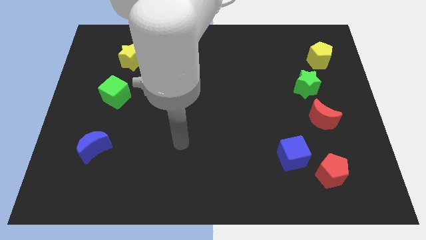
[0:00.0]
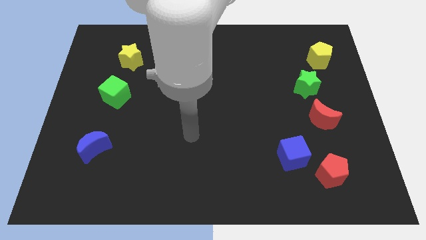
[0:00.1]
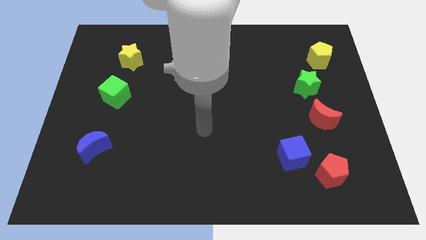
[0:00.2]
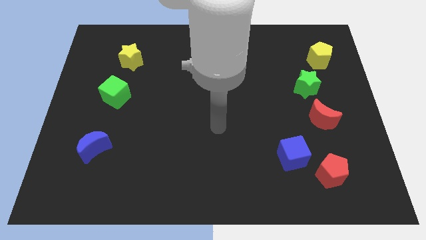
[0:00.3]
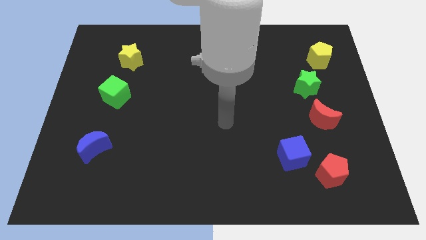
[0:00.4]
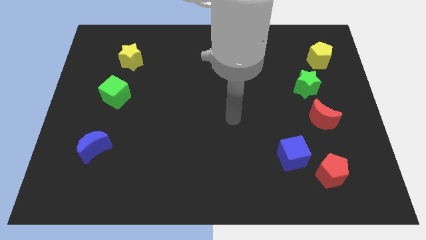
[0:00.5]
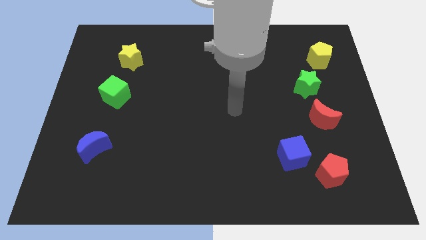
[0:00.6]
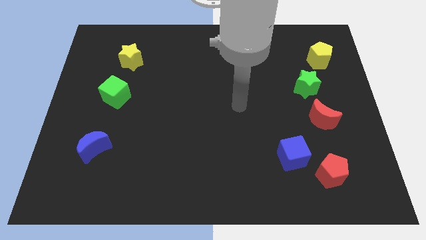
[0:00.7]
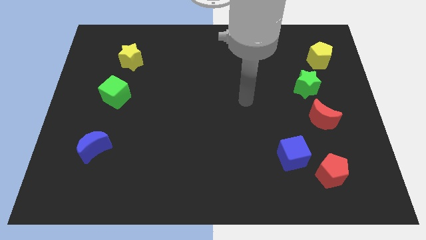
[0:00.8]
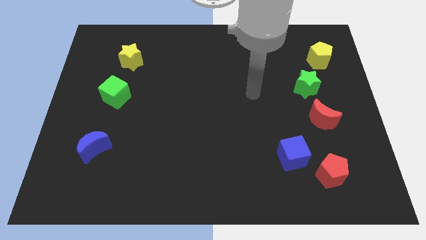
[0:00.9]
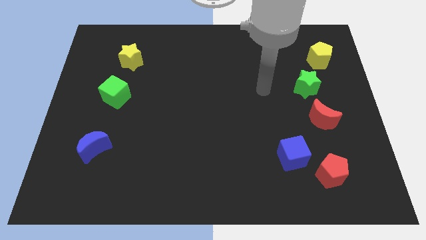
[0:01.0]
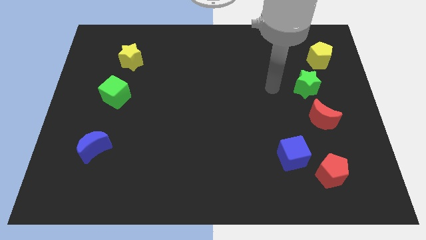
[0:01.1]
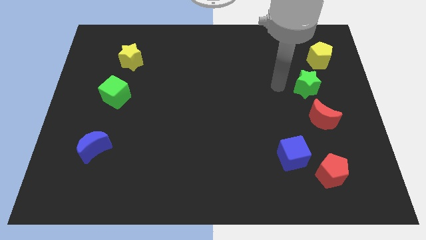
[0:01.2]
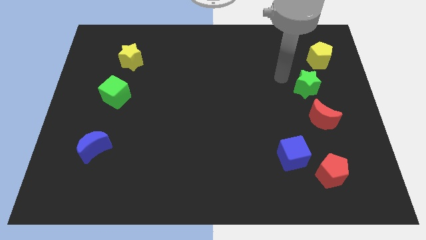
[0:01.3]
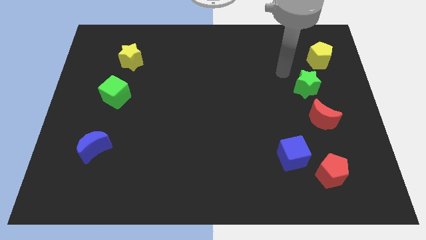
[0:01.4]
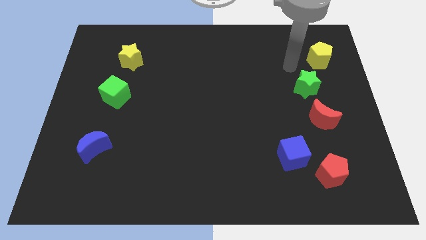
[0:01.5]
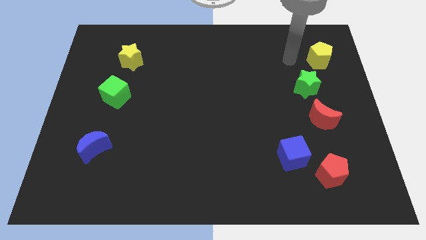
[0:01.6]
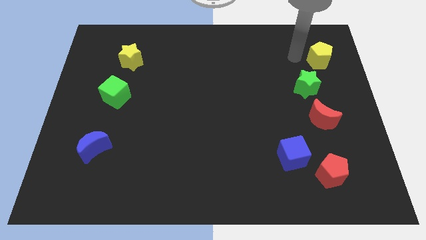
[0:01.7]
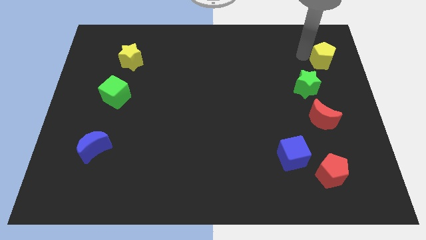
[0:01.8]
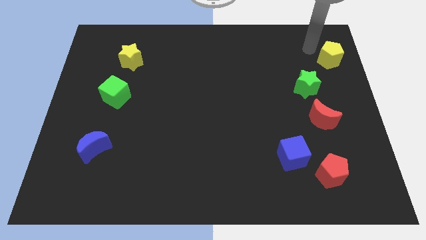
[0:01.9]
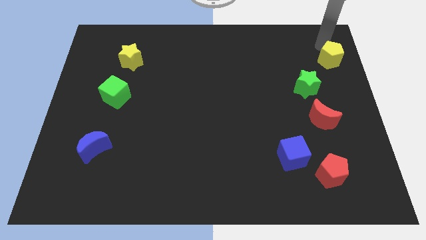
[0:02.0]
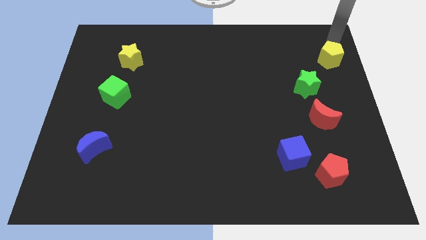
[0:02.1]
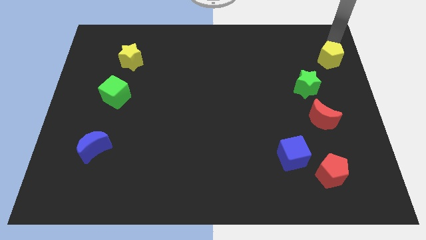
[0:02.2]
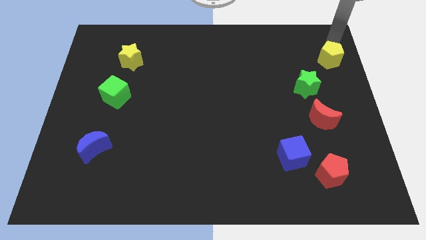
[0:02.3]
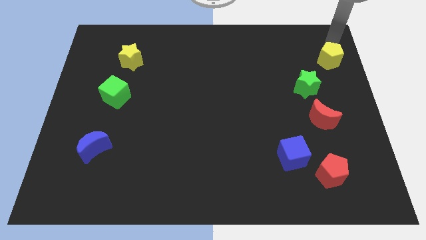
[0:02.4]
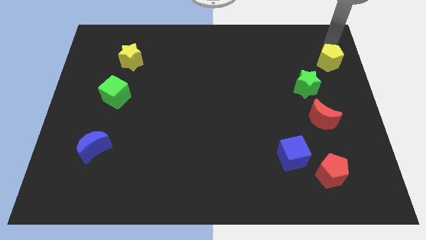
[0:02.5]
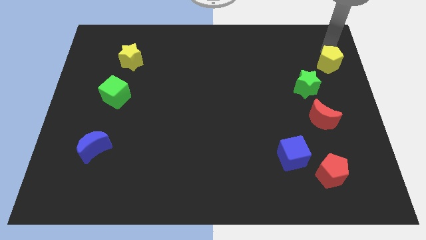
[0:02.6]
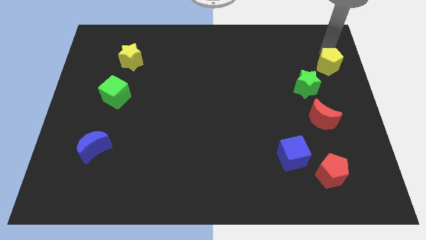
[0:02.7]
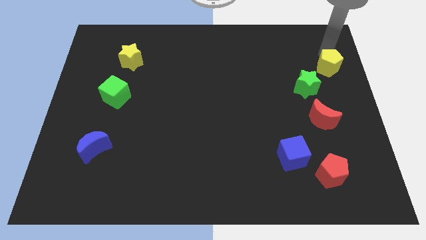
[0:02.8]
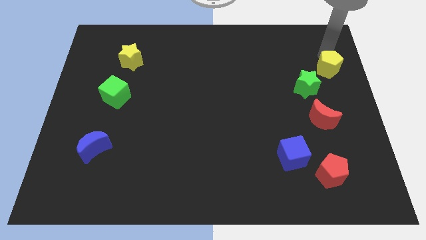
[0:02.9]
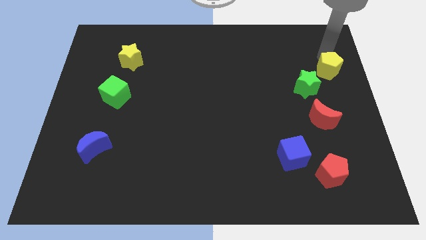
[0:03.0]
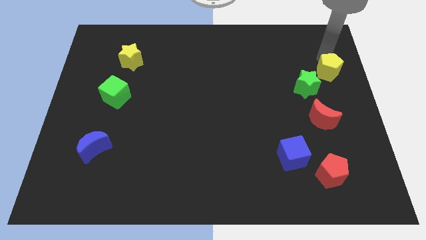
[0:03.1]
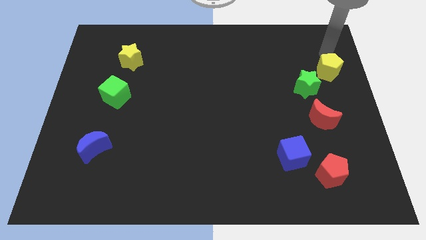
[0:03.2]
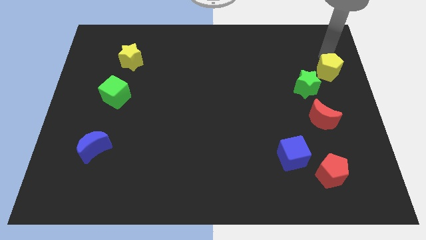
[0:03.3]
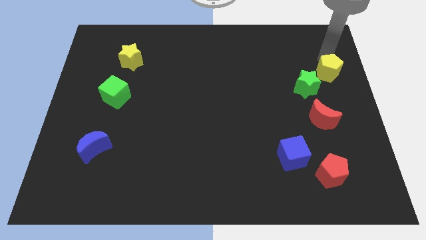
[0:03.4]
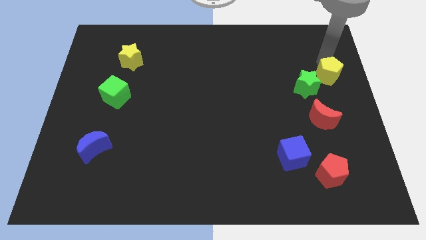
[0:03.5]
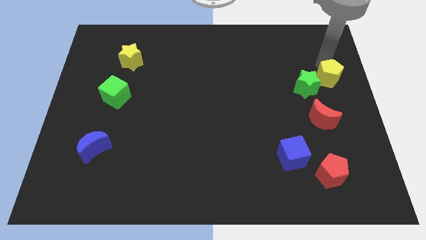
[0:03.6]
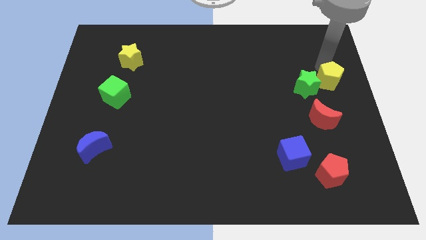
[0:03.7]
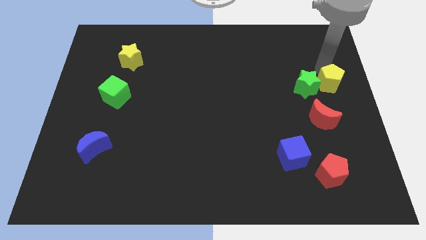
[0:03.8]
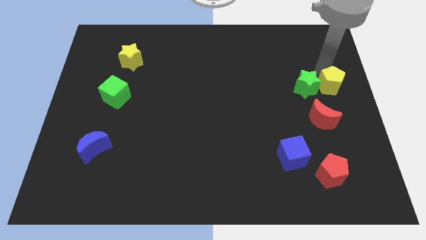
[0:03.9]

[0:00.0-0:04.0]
push the yellow pentagon diagonally down and to the right of the green star

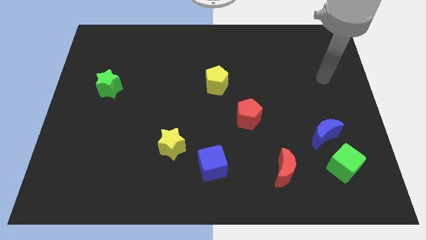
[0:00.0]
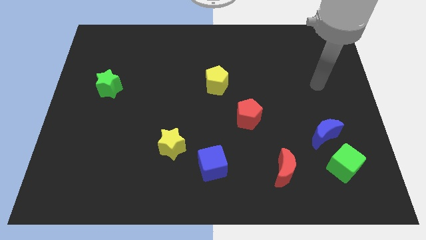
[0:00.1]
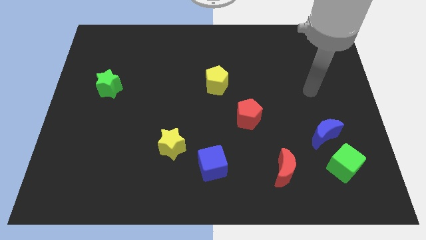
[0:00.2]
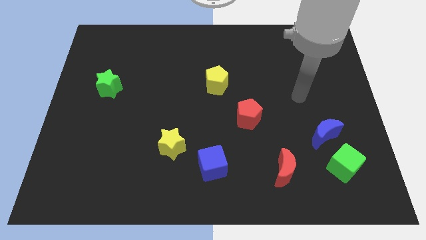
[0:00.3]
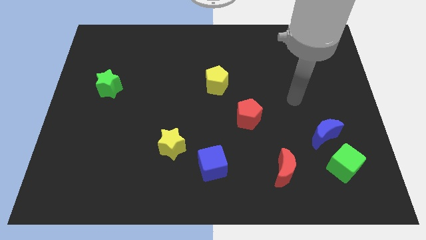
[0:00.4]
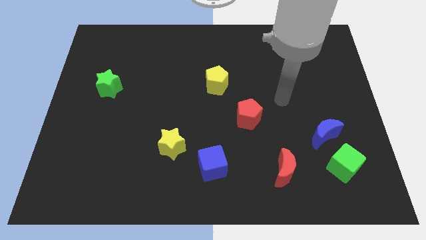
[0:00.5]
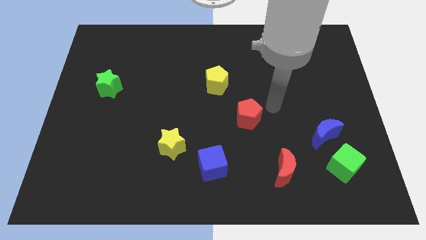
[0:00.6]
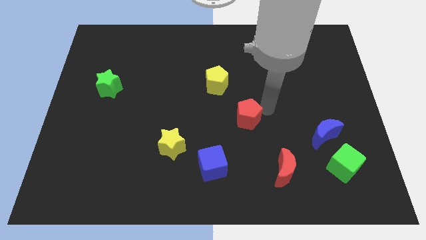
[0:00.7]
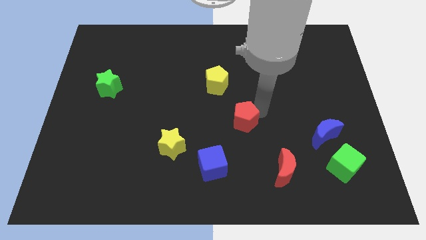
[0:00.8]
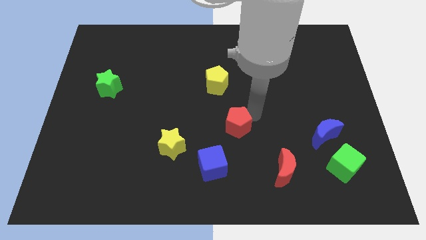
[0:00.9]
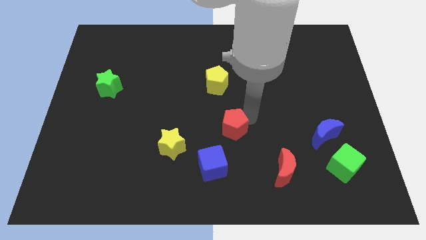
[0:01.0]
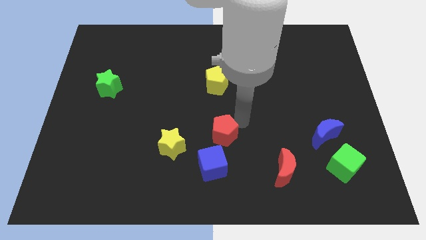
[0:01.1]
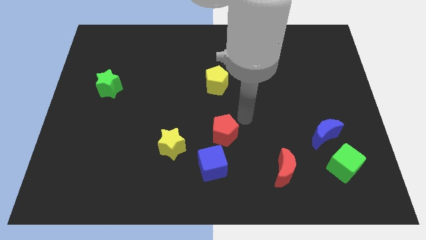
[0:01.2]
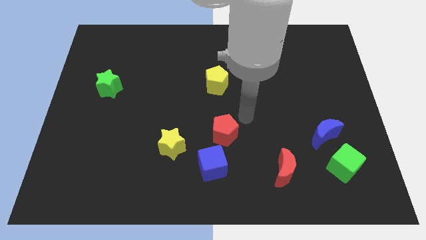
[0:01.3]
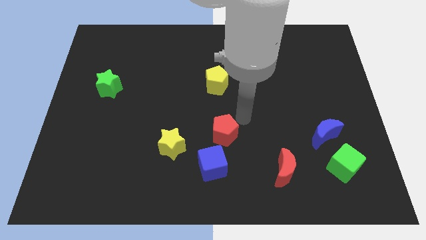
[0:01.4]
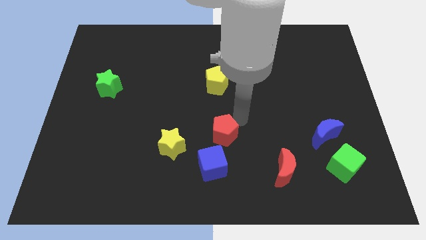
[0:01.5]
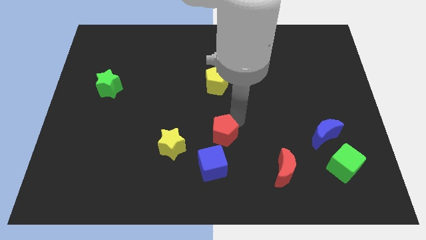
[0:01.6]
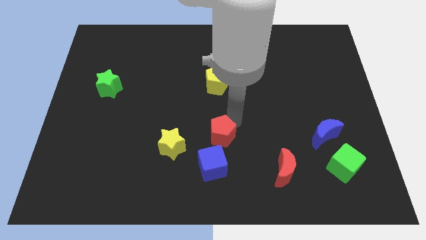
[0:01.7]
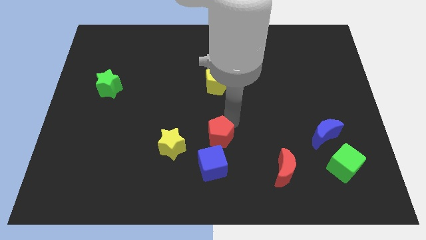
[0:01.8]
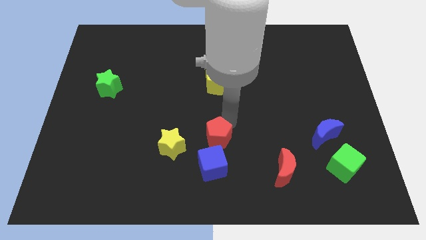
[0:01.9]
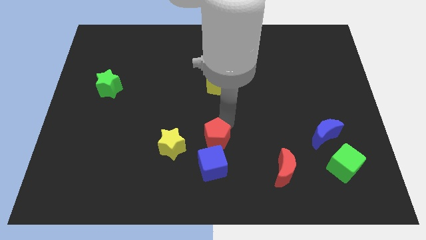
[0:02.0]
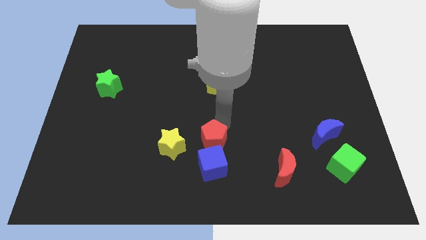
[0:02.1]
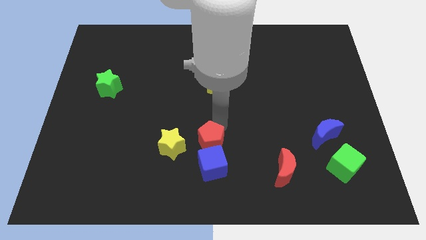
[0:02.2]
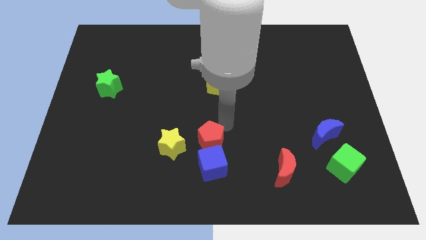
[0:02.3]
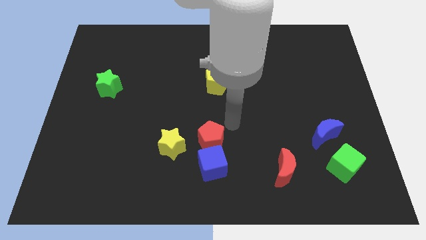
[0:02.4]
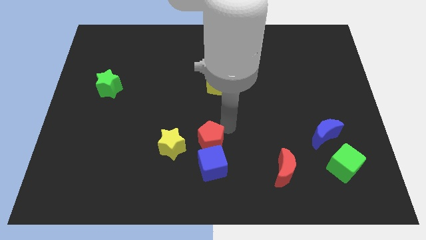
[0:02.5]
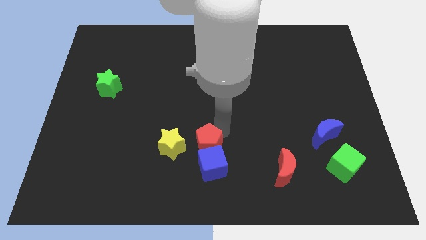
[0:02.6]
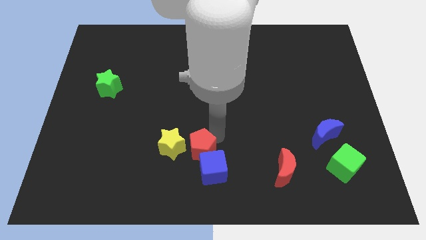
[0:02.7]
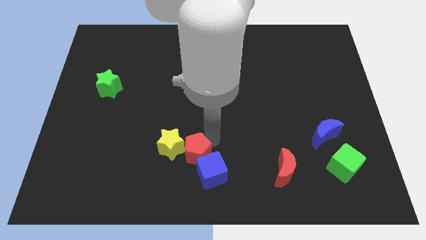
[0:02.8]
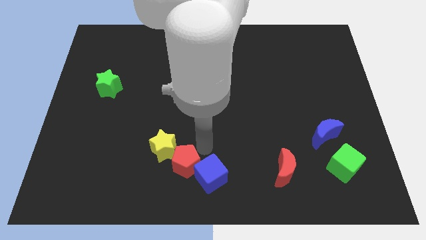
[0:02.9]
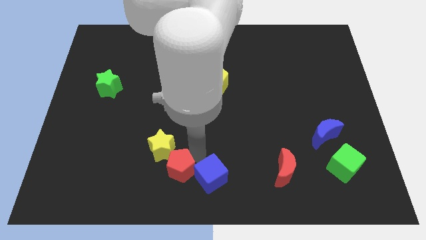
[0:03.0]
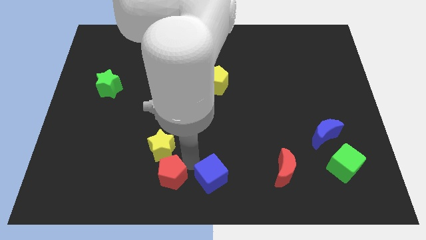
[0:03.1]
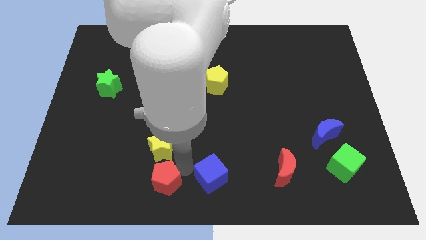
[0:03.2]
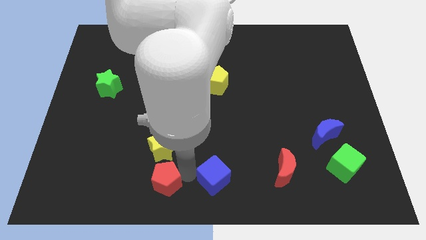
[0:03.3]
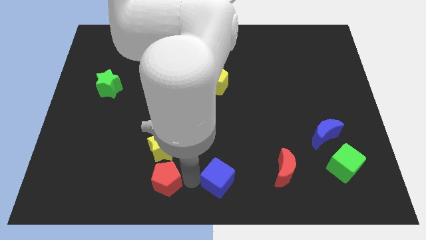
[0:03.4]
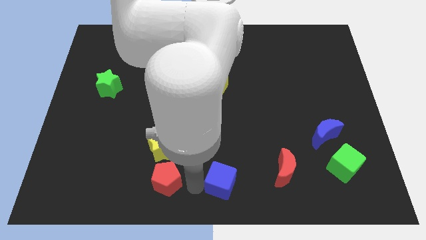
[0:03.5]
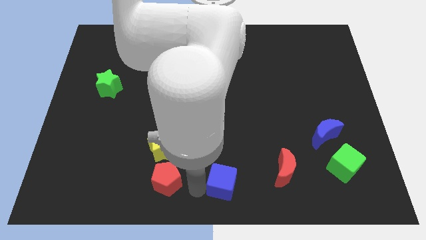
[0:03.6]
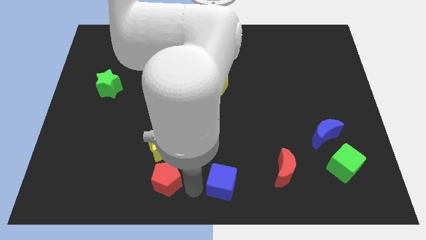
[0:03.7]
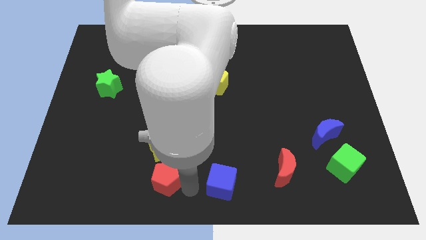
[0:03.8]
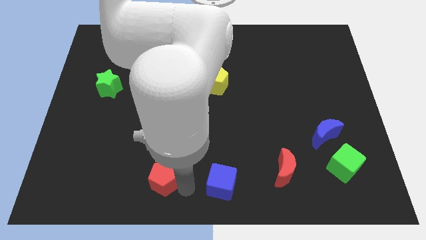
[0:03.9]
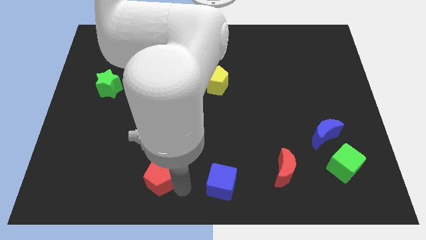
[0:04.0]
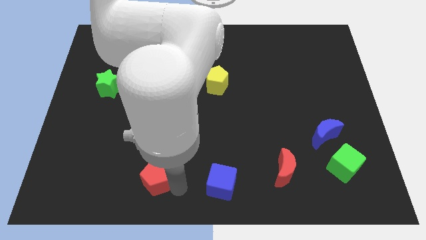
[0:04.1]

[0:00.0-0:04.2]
put the red pentagon to the bottom left of the yellow star
